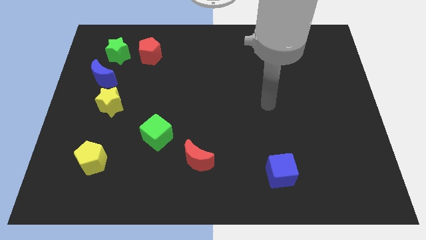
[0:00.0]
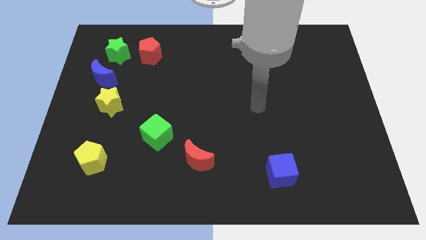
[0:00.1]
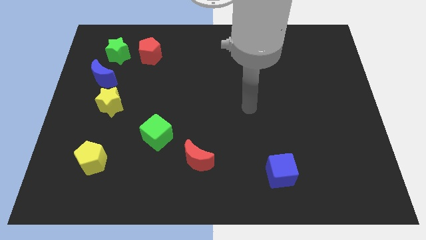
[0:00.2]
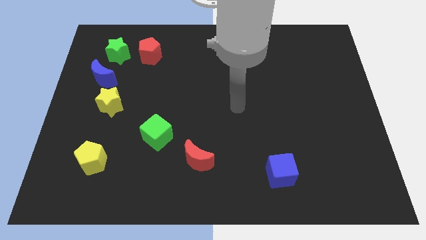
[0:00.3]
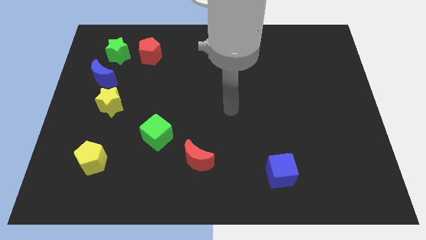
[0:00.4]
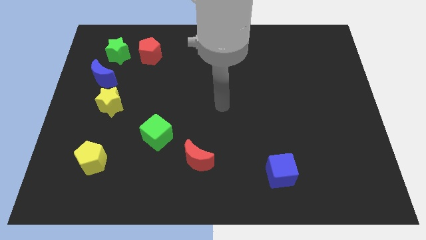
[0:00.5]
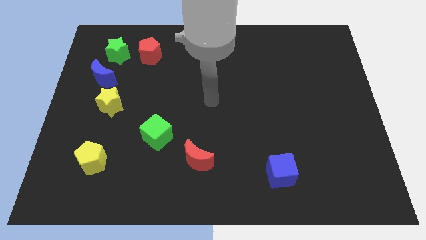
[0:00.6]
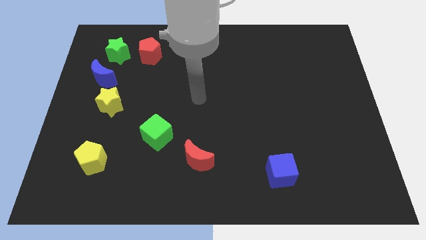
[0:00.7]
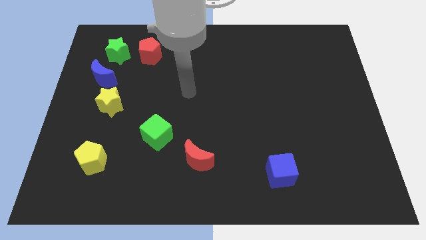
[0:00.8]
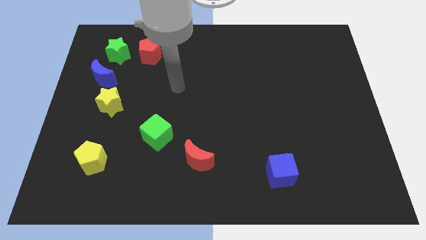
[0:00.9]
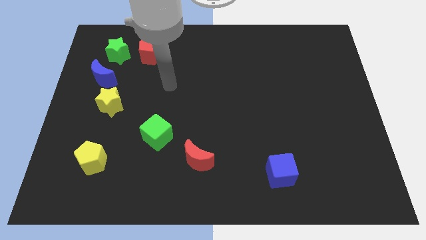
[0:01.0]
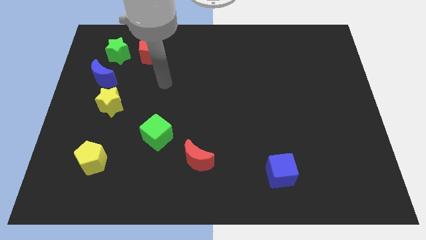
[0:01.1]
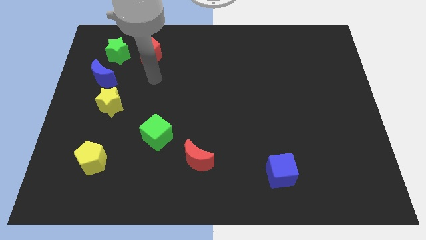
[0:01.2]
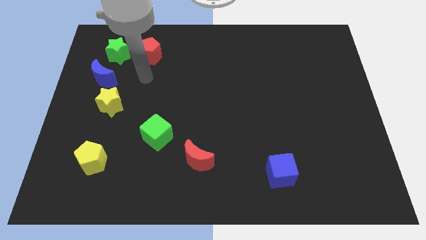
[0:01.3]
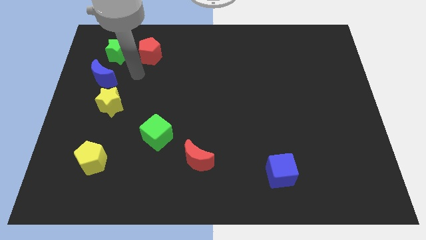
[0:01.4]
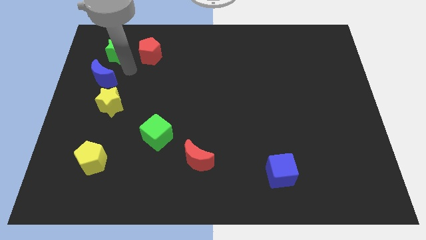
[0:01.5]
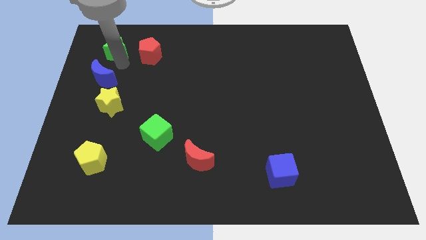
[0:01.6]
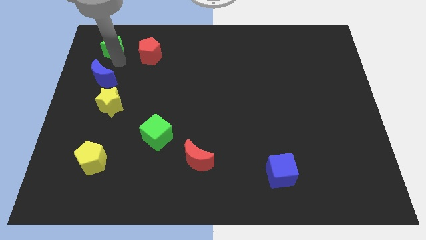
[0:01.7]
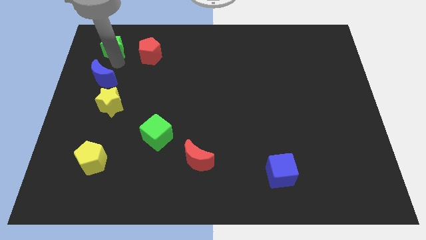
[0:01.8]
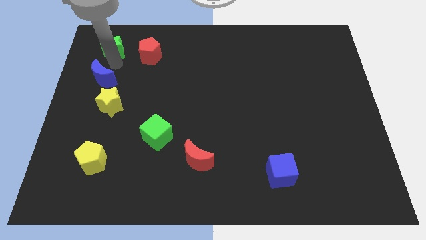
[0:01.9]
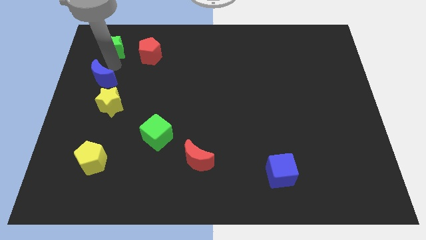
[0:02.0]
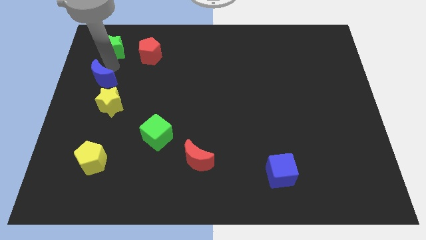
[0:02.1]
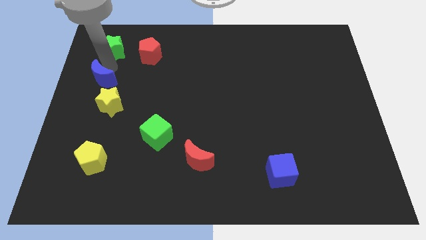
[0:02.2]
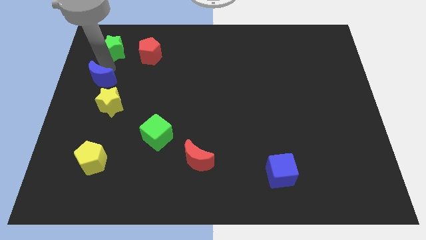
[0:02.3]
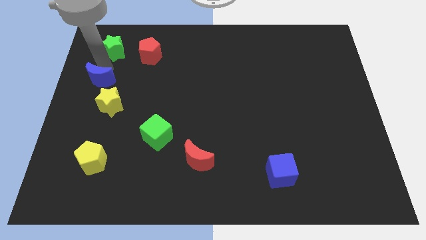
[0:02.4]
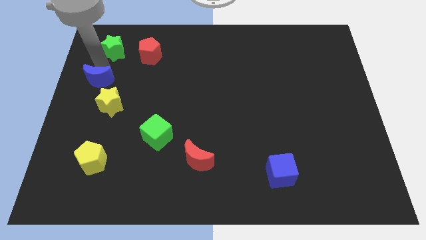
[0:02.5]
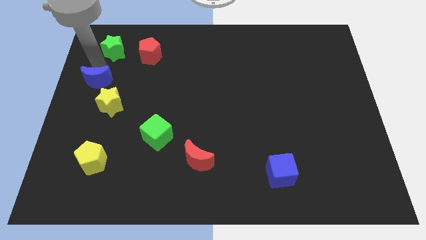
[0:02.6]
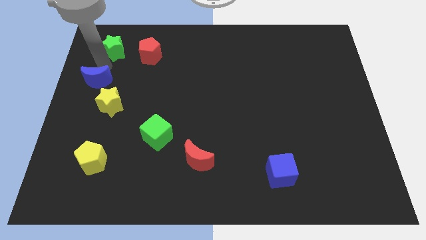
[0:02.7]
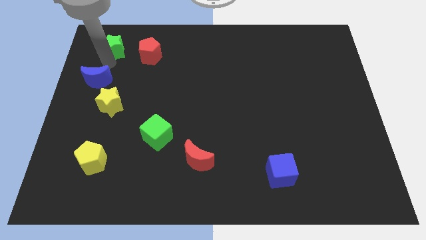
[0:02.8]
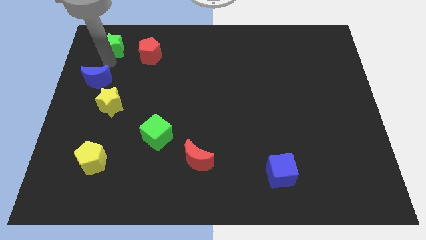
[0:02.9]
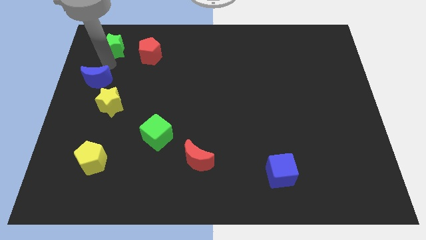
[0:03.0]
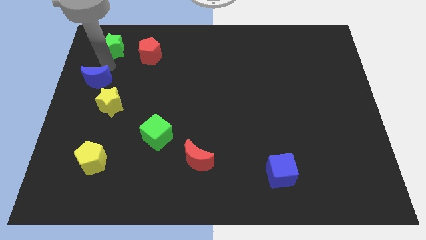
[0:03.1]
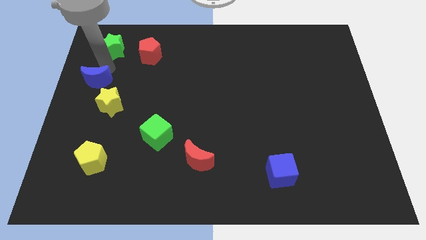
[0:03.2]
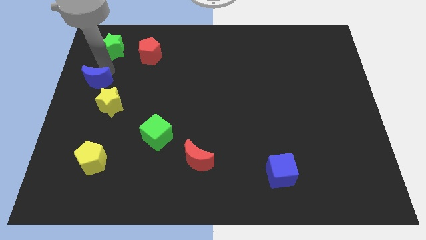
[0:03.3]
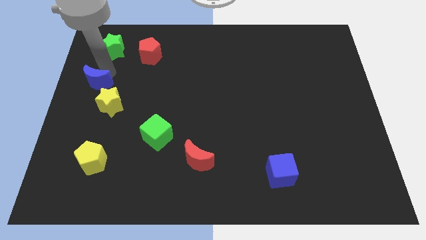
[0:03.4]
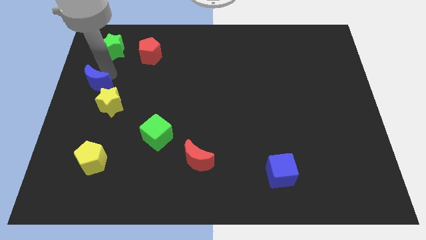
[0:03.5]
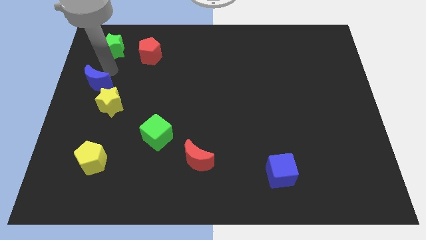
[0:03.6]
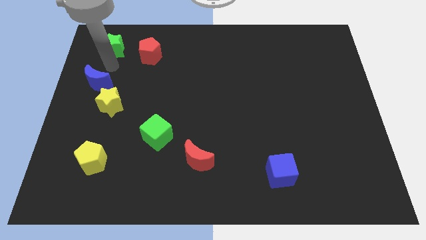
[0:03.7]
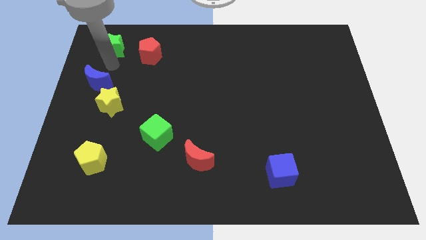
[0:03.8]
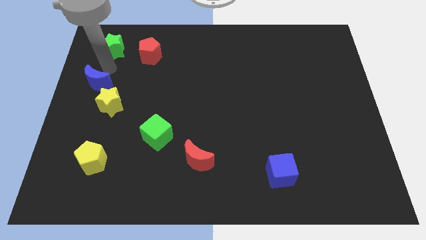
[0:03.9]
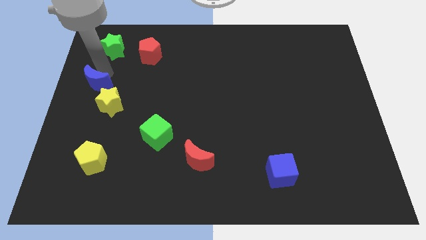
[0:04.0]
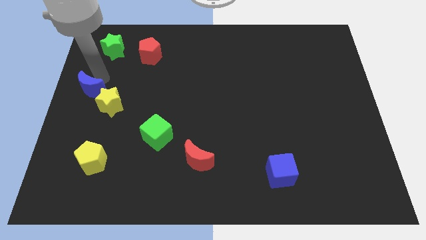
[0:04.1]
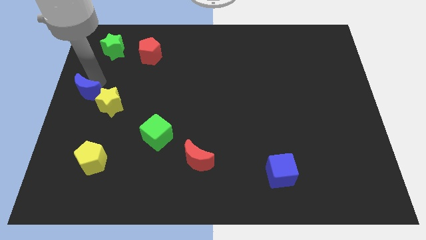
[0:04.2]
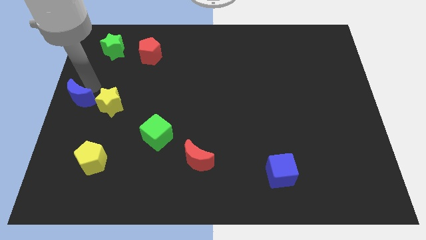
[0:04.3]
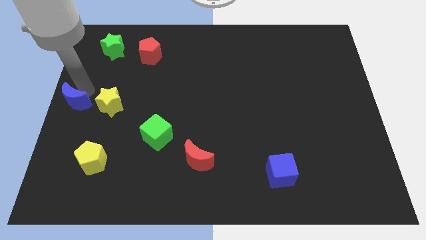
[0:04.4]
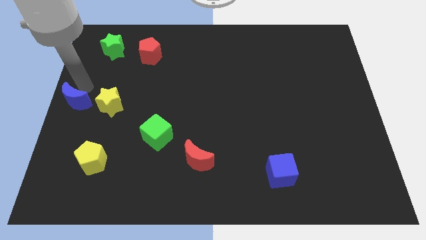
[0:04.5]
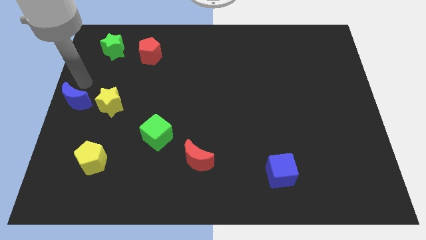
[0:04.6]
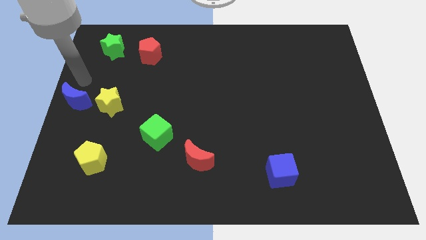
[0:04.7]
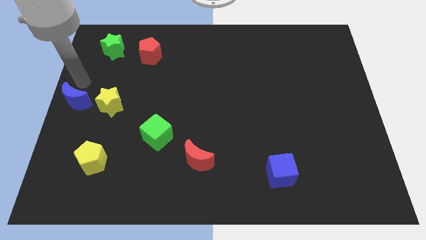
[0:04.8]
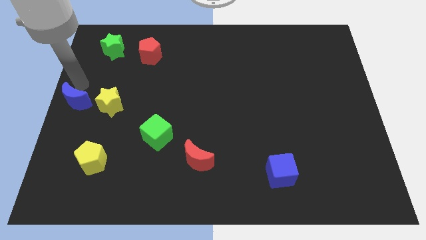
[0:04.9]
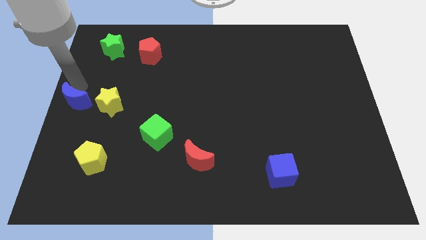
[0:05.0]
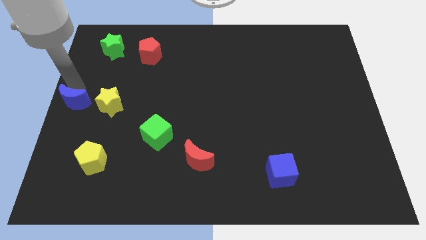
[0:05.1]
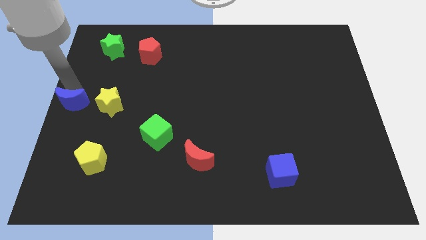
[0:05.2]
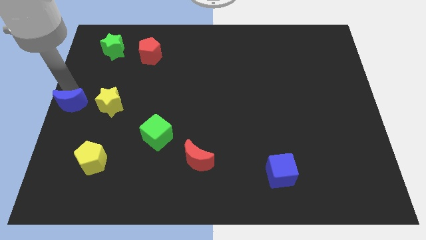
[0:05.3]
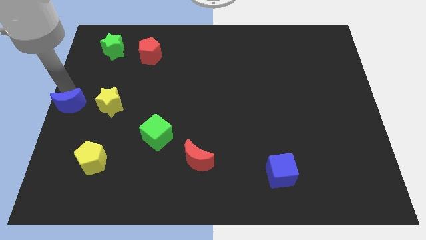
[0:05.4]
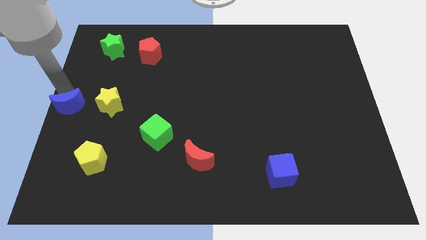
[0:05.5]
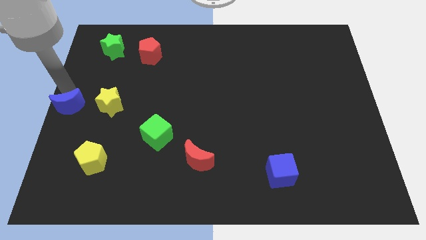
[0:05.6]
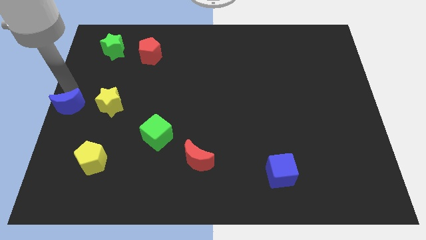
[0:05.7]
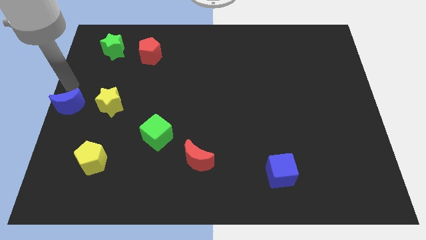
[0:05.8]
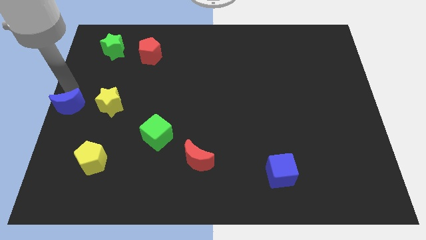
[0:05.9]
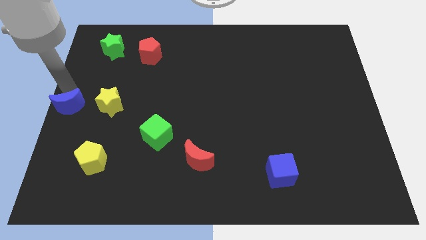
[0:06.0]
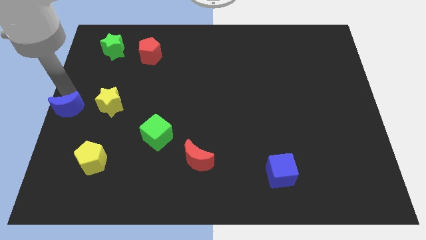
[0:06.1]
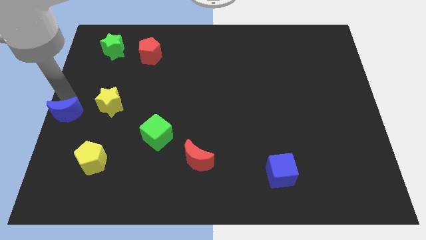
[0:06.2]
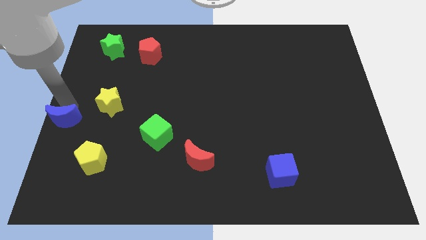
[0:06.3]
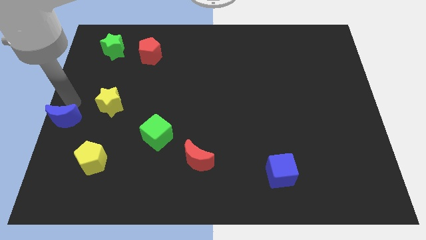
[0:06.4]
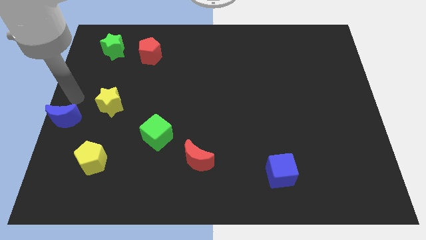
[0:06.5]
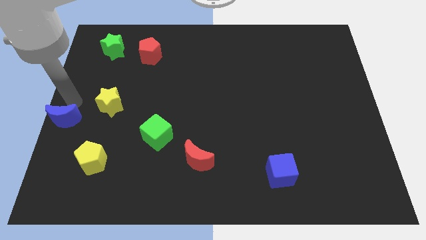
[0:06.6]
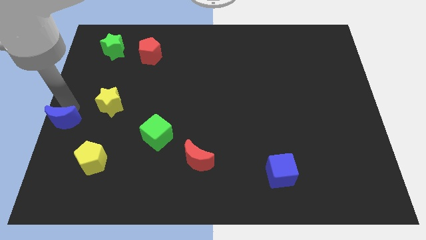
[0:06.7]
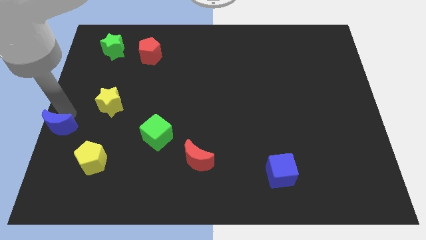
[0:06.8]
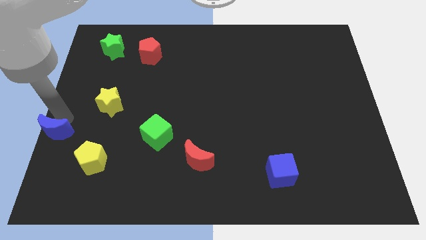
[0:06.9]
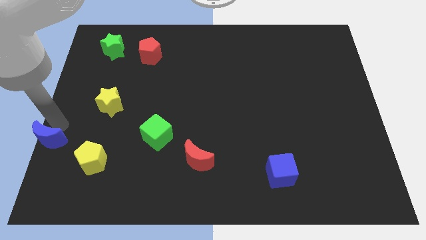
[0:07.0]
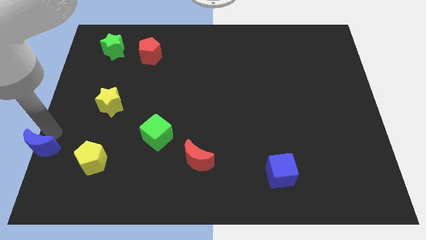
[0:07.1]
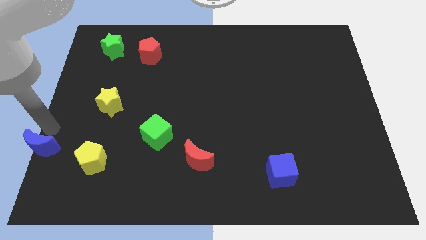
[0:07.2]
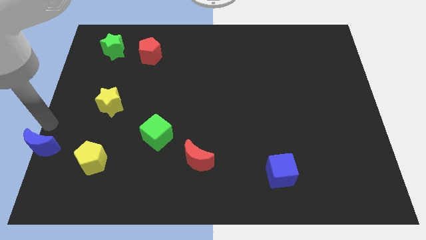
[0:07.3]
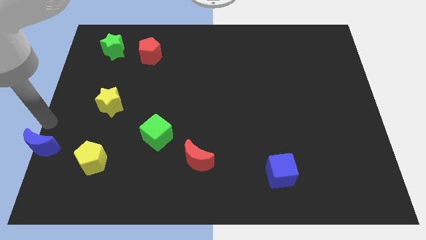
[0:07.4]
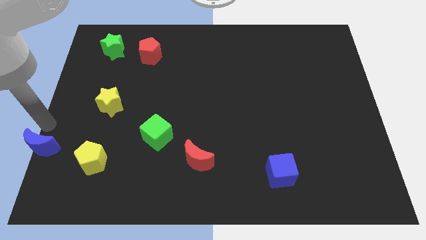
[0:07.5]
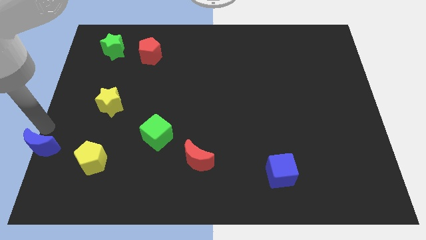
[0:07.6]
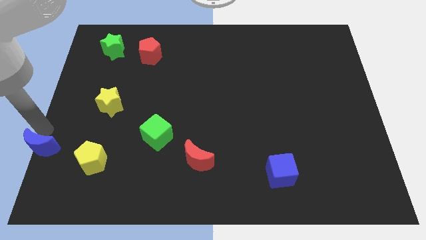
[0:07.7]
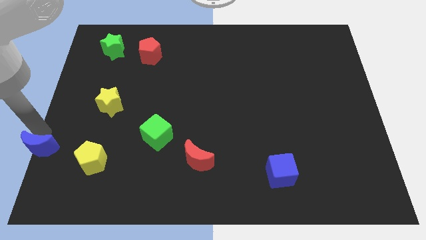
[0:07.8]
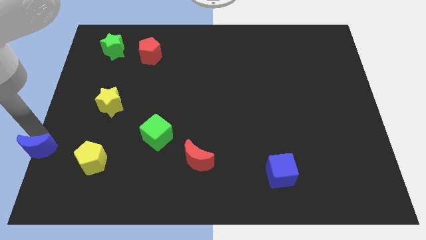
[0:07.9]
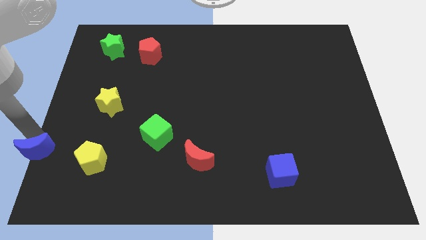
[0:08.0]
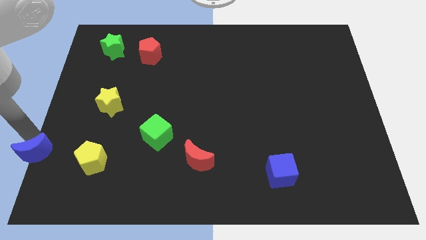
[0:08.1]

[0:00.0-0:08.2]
put the blue moon to the bottom left of the board
